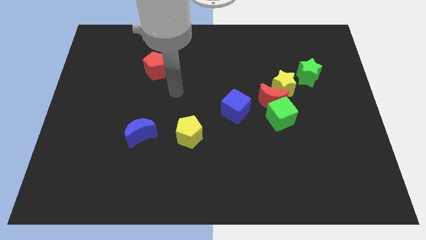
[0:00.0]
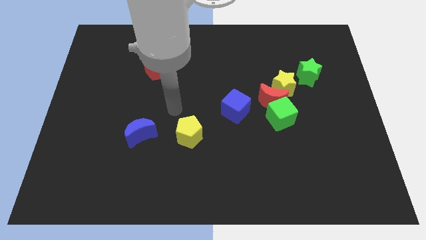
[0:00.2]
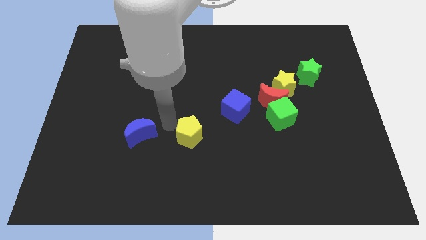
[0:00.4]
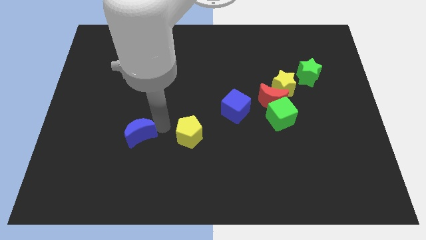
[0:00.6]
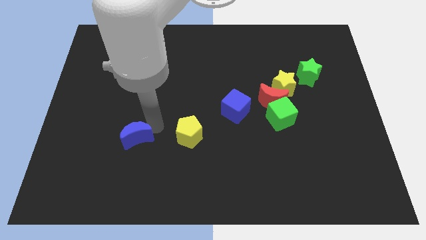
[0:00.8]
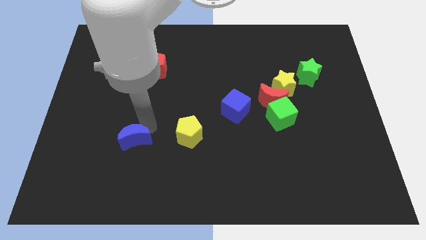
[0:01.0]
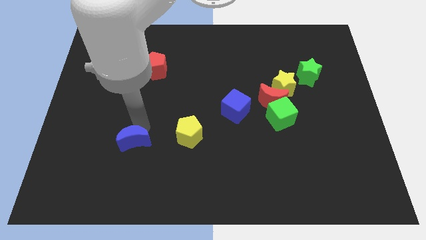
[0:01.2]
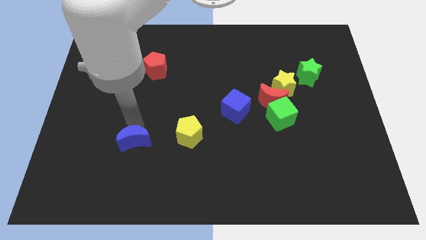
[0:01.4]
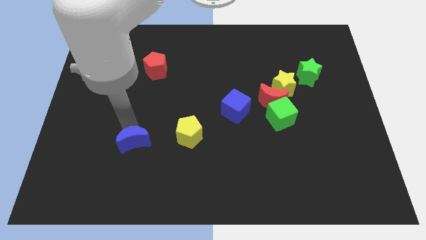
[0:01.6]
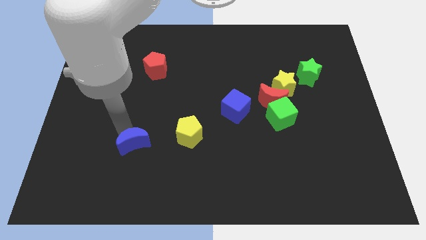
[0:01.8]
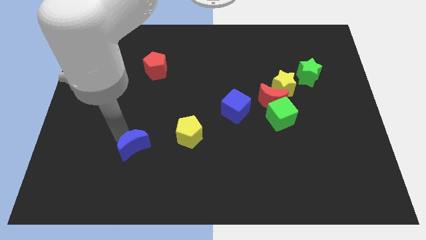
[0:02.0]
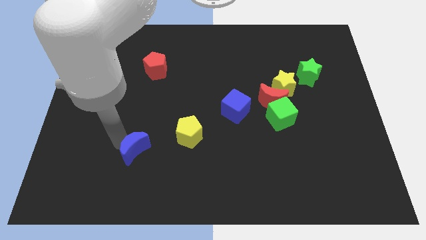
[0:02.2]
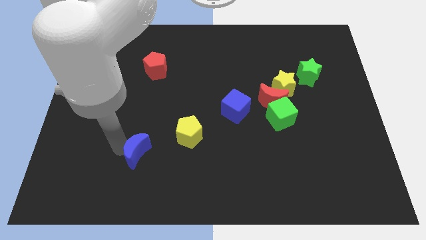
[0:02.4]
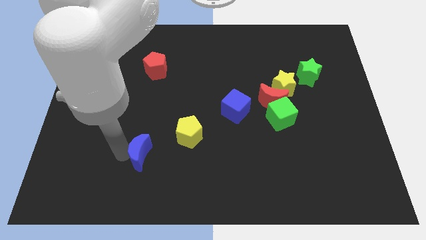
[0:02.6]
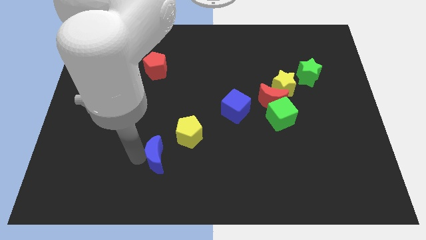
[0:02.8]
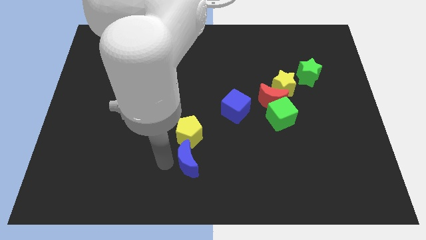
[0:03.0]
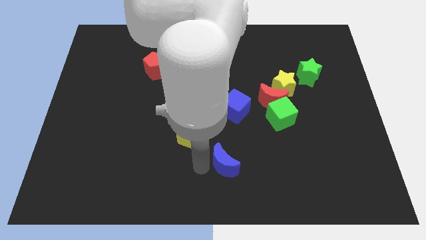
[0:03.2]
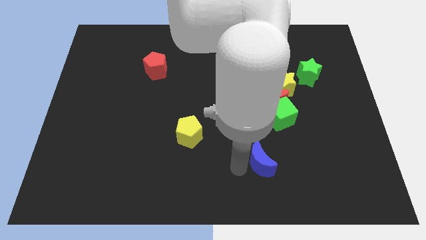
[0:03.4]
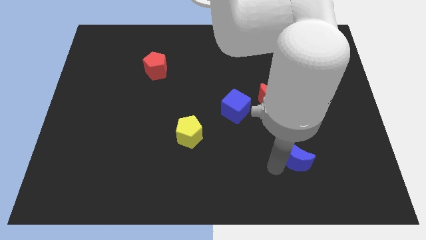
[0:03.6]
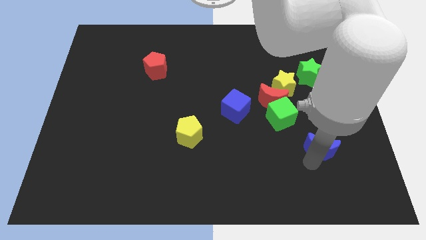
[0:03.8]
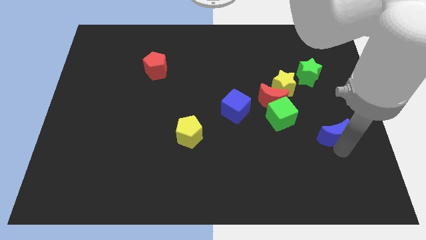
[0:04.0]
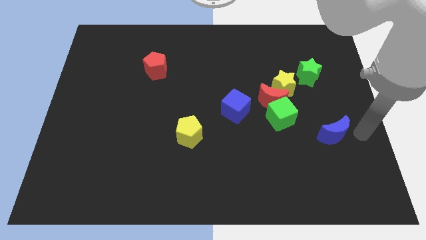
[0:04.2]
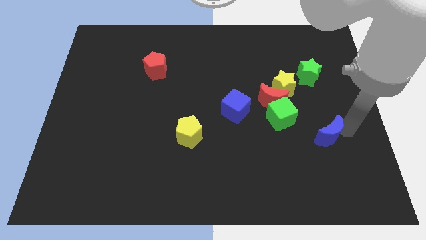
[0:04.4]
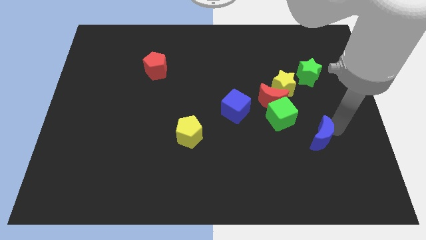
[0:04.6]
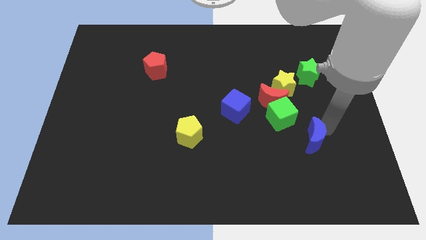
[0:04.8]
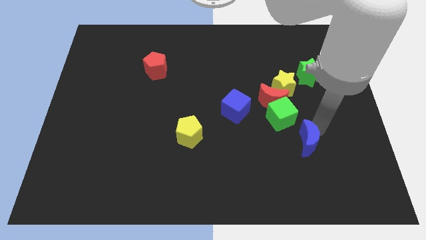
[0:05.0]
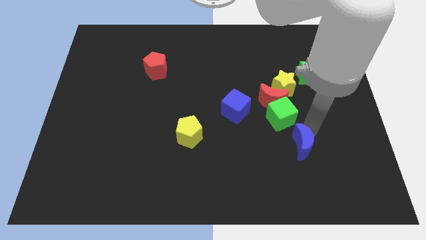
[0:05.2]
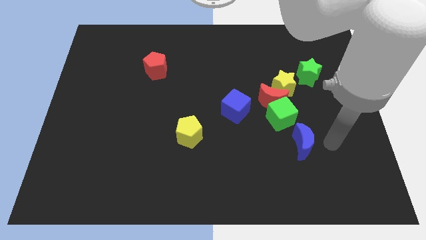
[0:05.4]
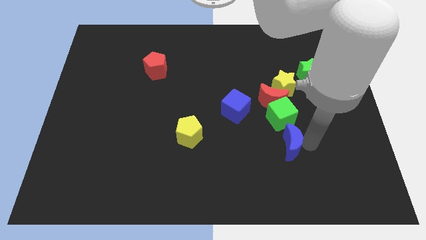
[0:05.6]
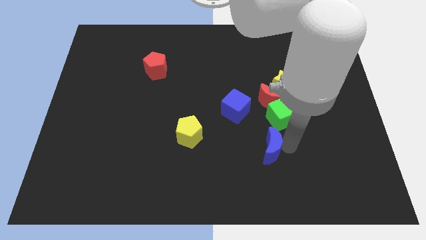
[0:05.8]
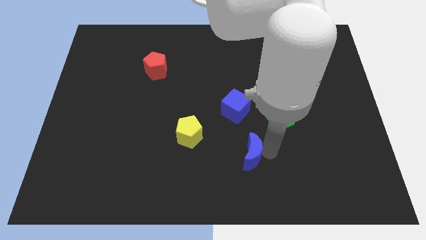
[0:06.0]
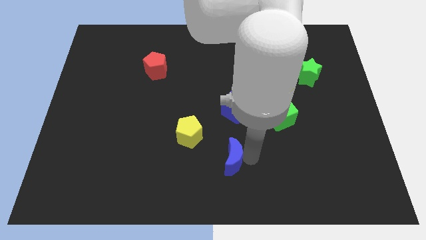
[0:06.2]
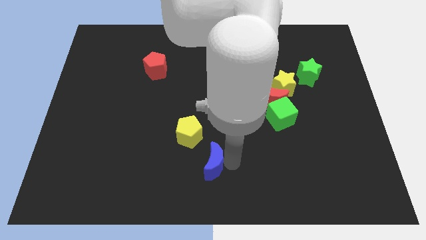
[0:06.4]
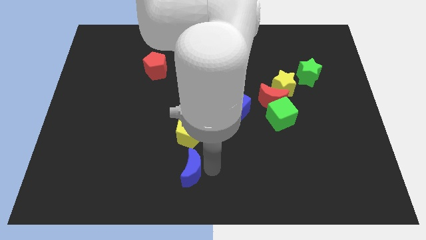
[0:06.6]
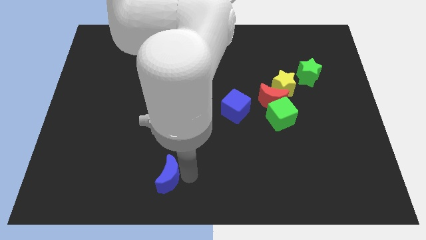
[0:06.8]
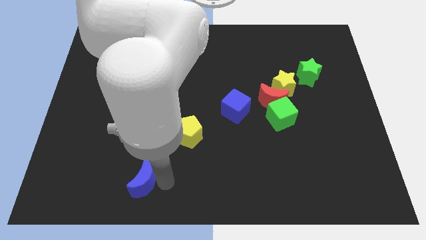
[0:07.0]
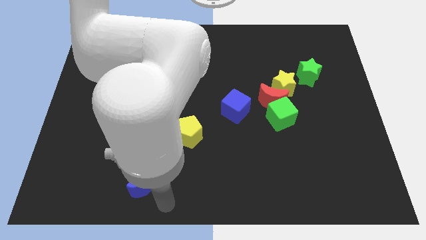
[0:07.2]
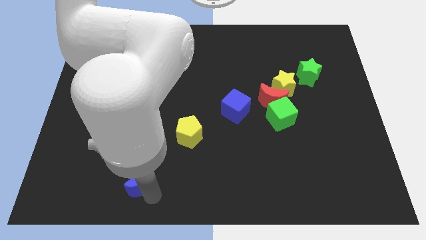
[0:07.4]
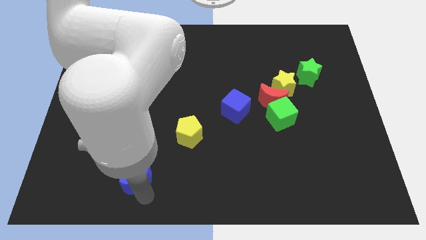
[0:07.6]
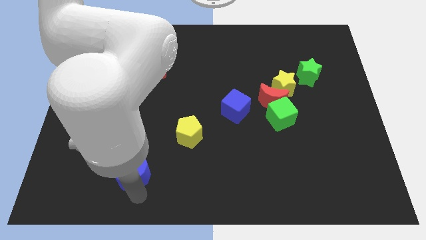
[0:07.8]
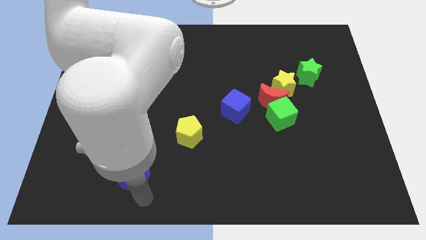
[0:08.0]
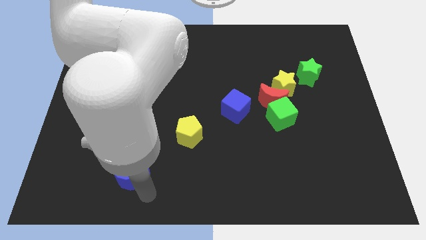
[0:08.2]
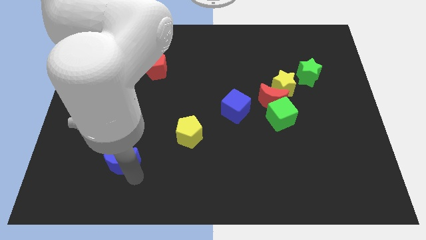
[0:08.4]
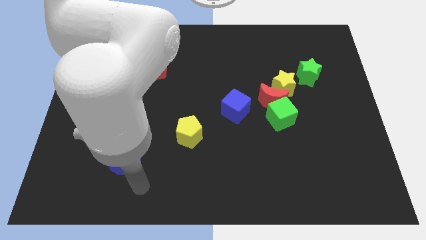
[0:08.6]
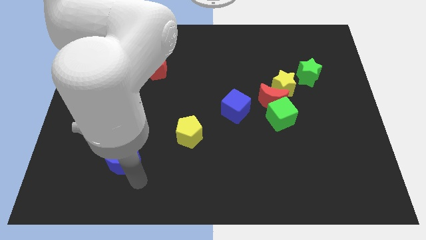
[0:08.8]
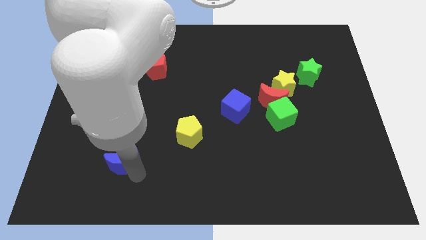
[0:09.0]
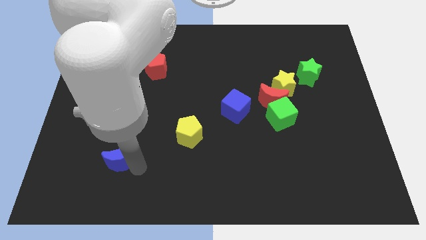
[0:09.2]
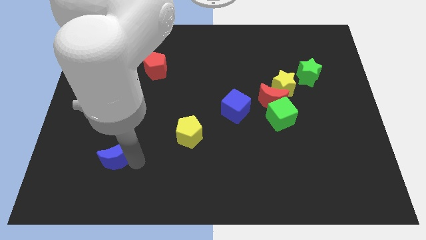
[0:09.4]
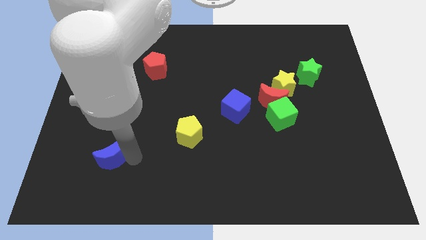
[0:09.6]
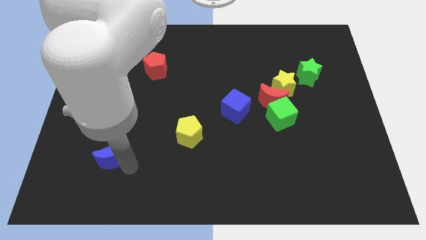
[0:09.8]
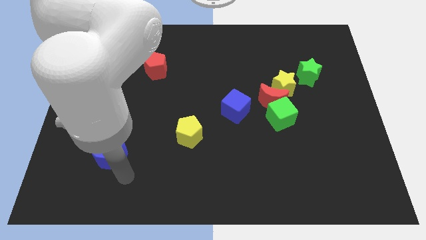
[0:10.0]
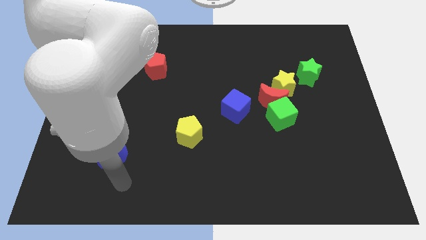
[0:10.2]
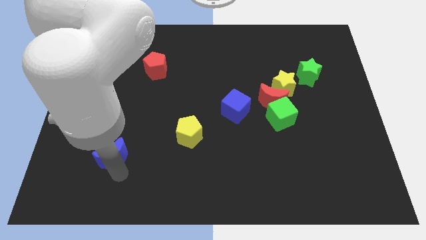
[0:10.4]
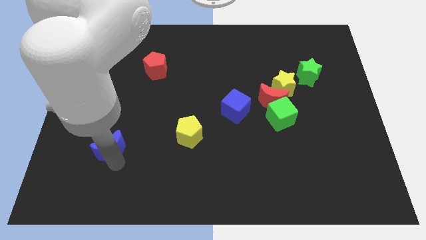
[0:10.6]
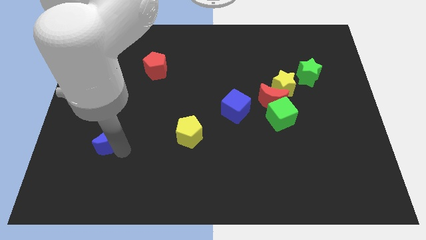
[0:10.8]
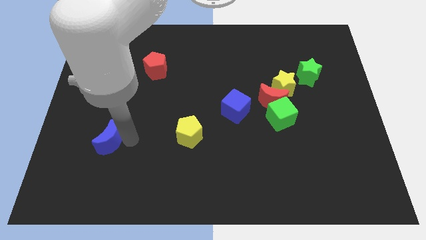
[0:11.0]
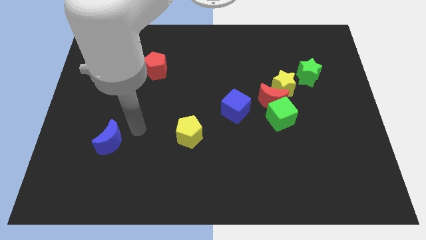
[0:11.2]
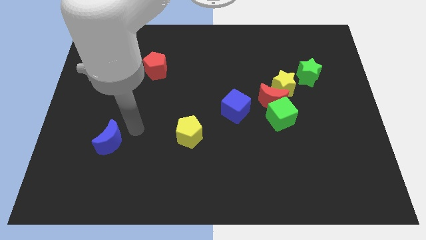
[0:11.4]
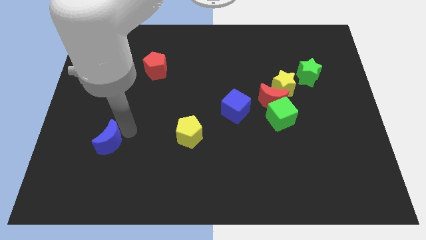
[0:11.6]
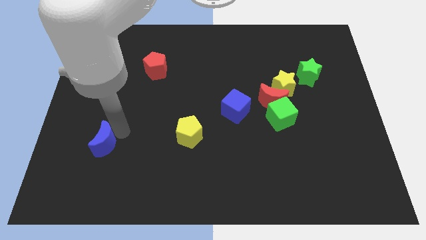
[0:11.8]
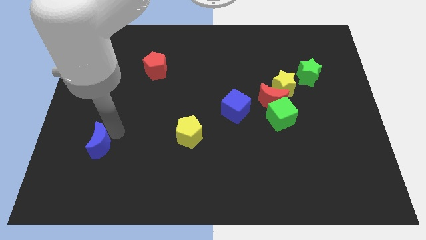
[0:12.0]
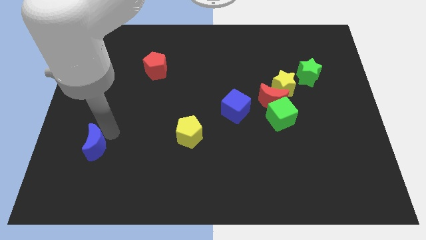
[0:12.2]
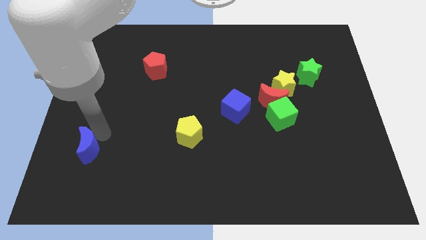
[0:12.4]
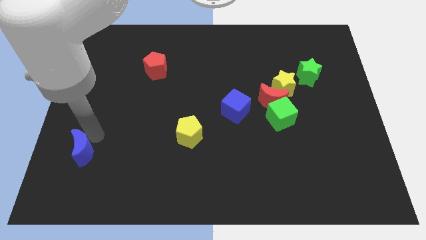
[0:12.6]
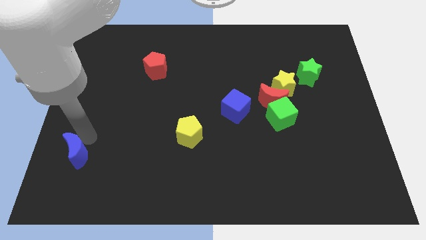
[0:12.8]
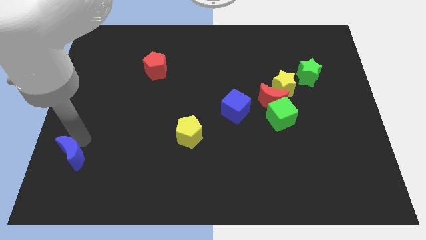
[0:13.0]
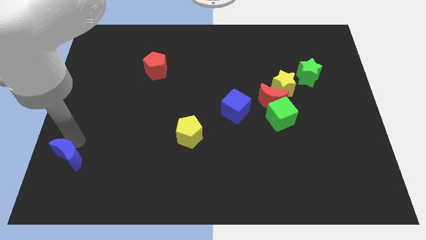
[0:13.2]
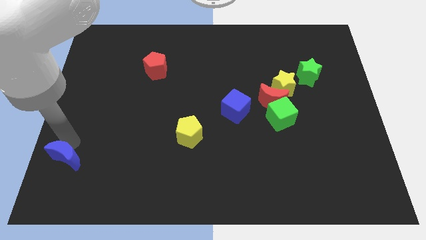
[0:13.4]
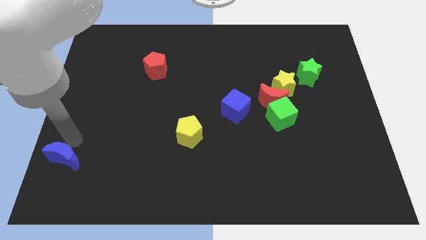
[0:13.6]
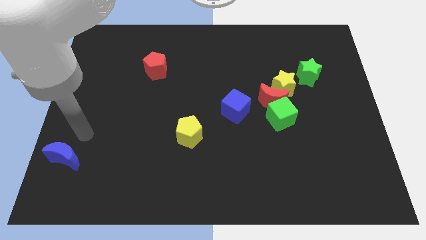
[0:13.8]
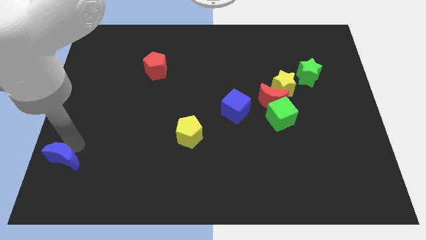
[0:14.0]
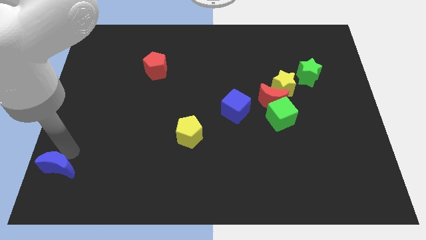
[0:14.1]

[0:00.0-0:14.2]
put the blue moon to the bottom left of the board

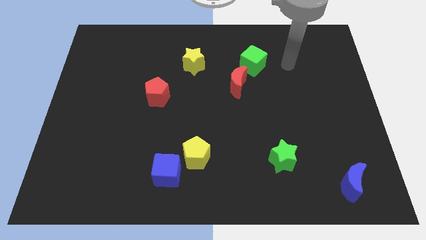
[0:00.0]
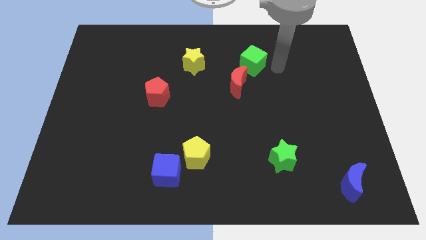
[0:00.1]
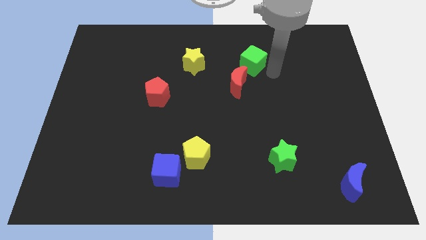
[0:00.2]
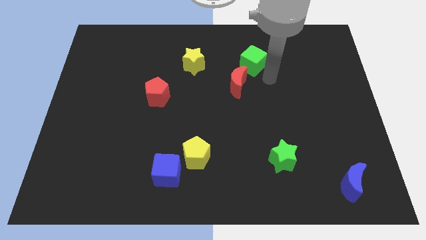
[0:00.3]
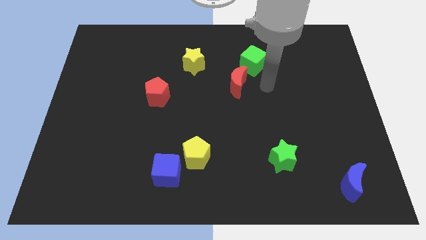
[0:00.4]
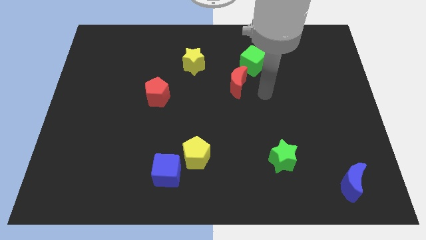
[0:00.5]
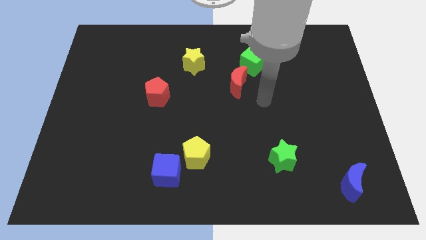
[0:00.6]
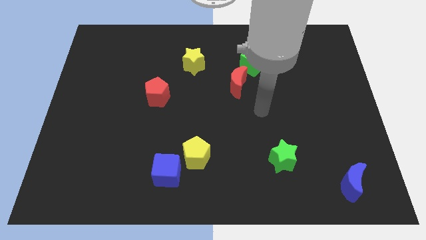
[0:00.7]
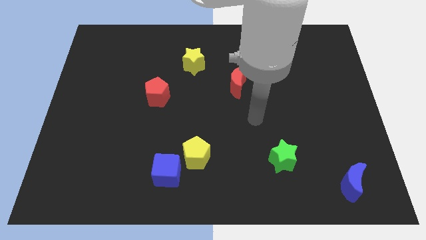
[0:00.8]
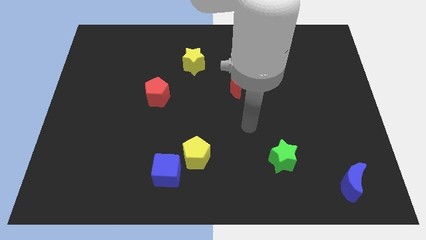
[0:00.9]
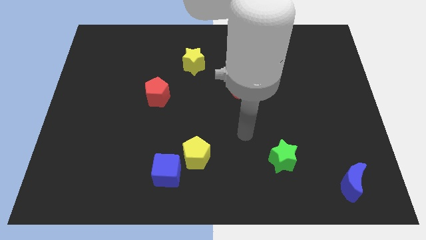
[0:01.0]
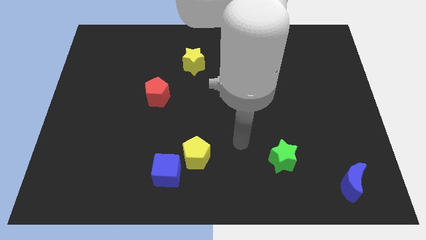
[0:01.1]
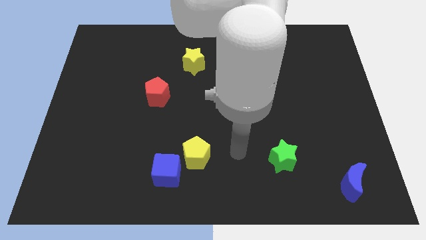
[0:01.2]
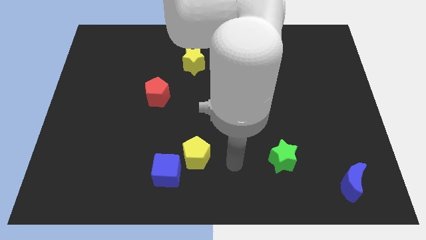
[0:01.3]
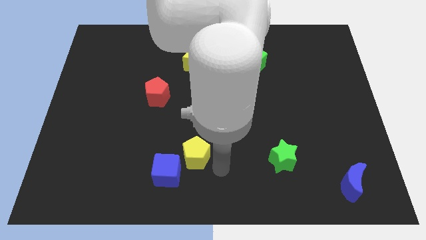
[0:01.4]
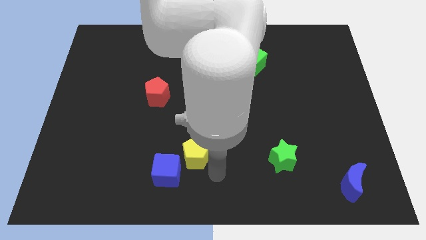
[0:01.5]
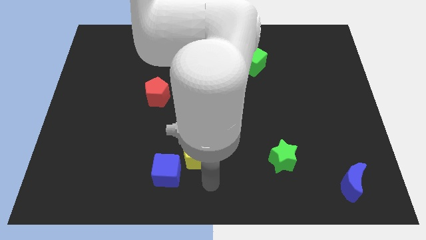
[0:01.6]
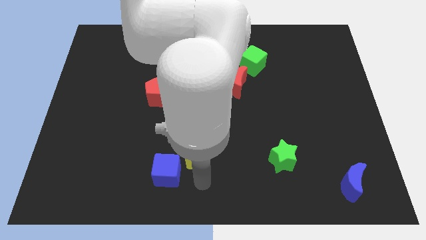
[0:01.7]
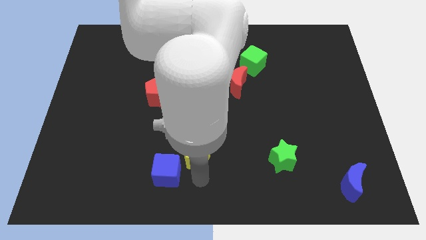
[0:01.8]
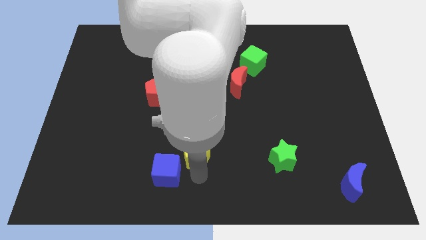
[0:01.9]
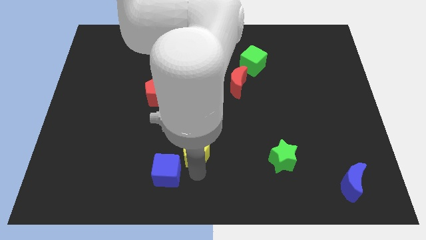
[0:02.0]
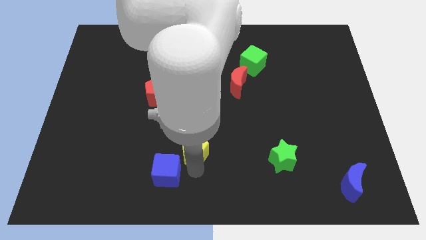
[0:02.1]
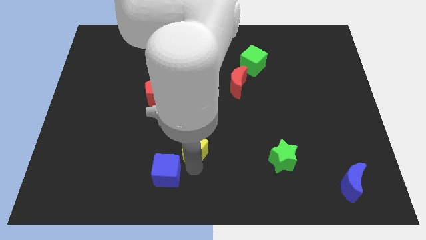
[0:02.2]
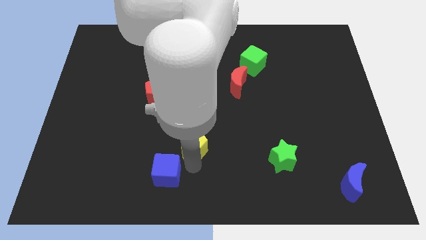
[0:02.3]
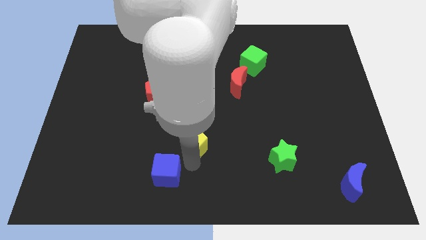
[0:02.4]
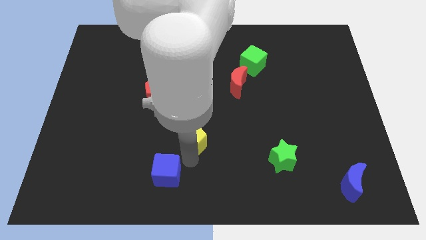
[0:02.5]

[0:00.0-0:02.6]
push the yellow pentagon to the center of the board
